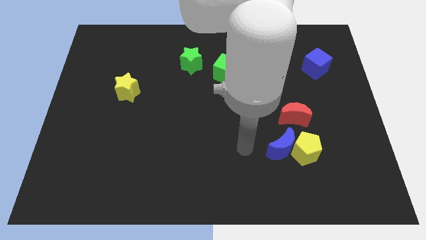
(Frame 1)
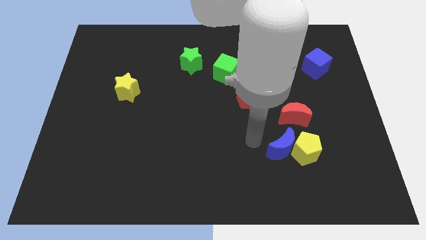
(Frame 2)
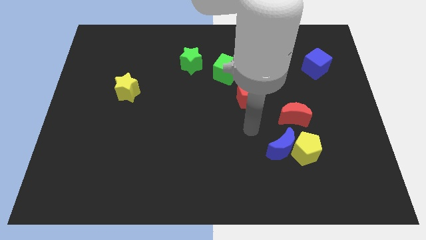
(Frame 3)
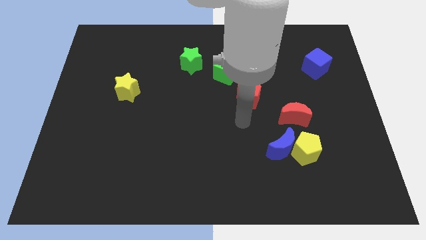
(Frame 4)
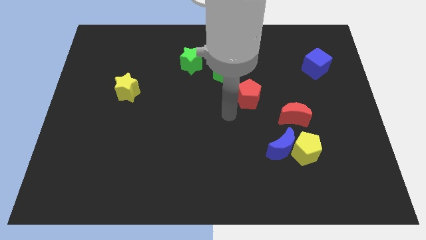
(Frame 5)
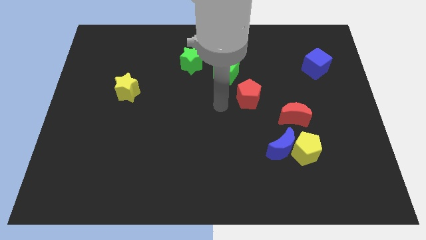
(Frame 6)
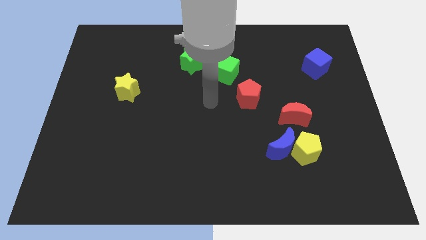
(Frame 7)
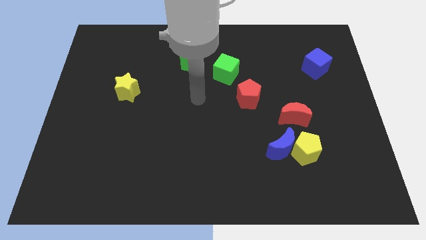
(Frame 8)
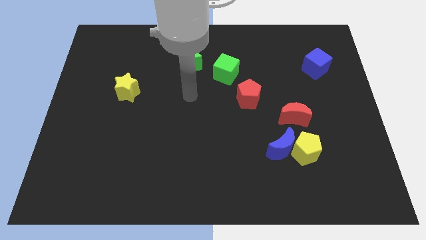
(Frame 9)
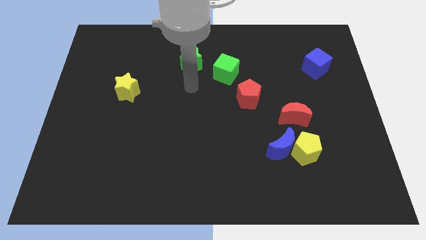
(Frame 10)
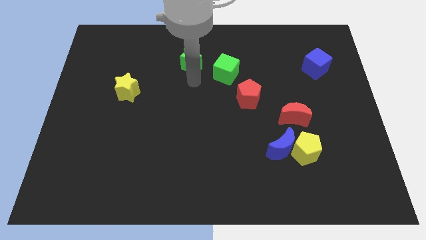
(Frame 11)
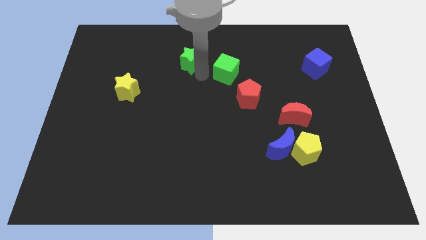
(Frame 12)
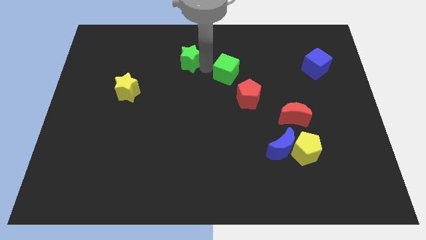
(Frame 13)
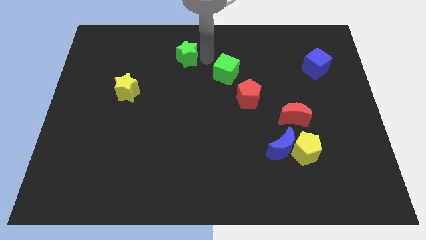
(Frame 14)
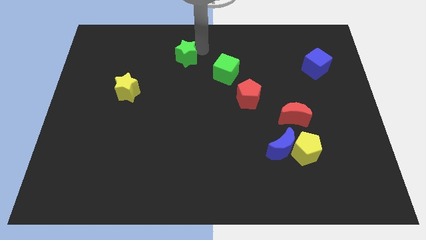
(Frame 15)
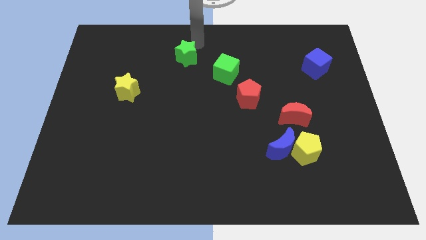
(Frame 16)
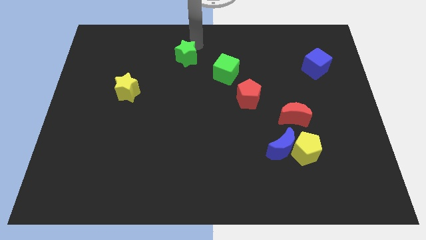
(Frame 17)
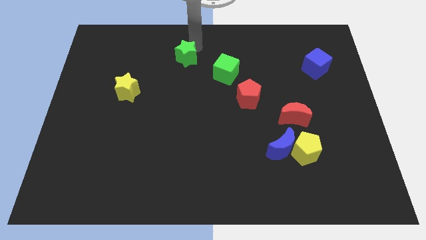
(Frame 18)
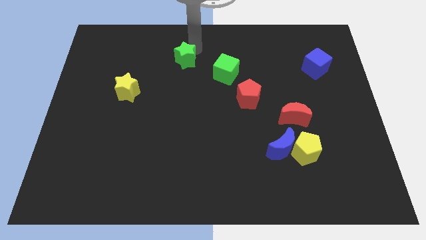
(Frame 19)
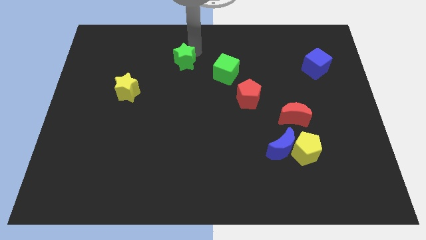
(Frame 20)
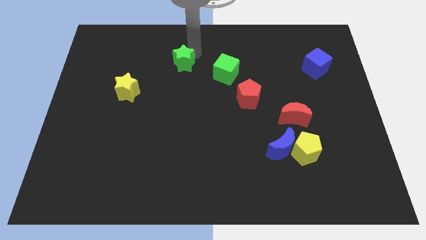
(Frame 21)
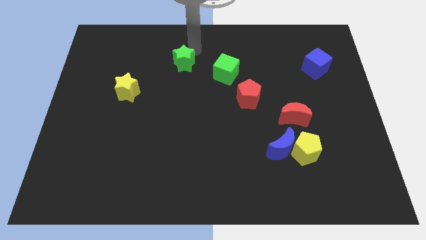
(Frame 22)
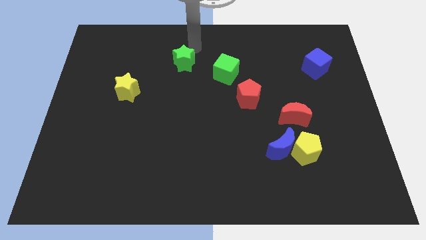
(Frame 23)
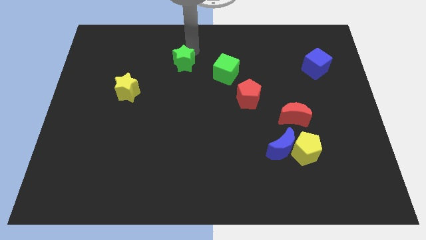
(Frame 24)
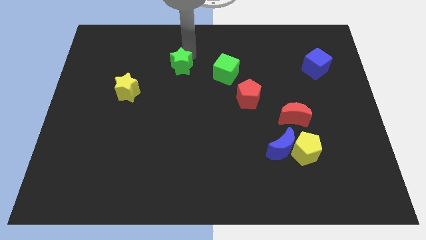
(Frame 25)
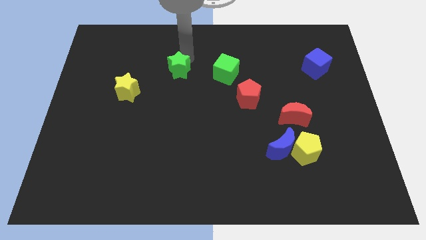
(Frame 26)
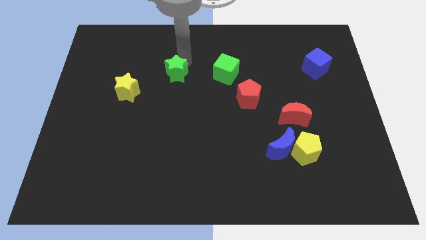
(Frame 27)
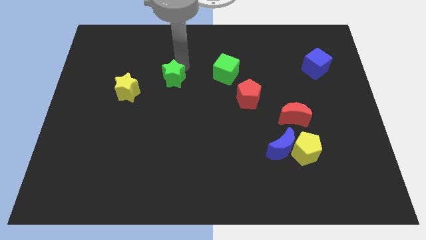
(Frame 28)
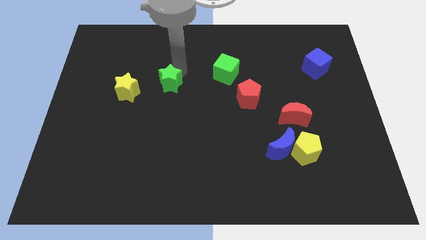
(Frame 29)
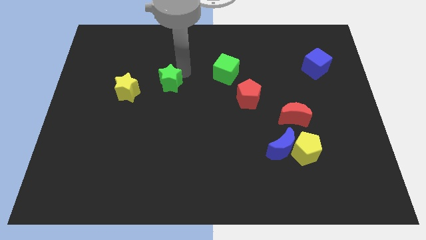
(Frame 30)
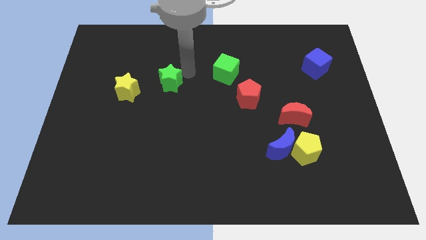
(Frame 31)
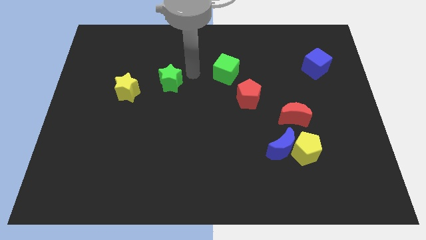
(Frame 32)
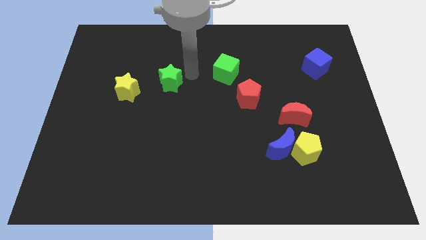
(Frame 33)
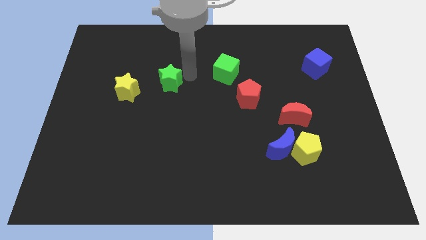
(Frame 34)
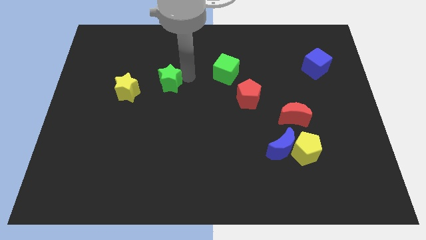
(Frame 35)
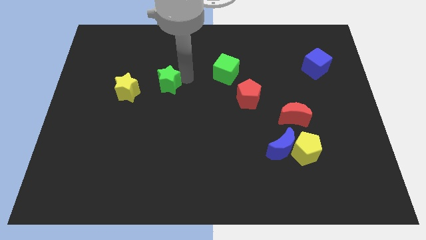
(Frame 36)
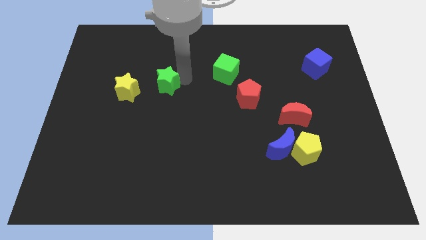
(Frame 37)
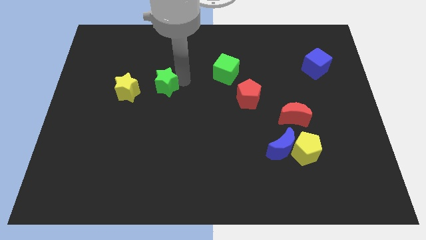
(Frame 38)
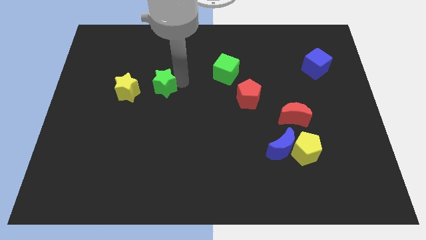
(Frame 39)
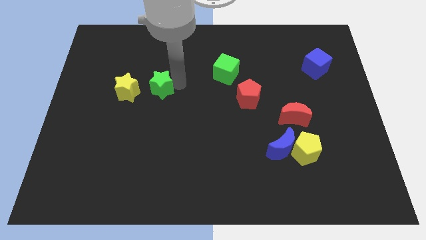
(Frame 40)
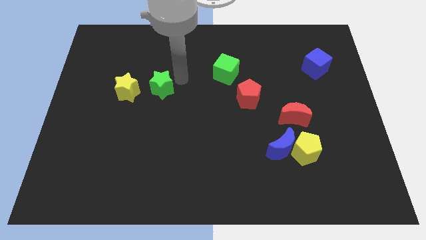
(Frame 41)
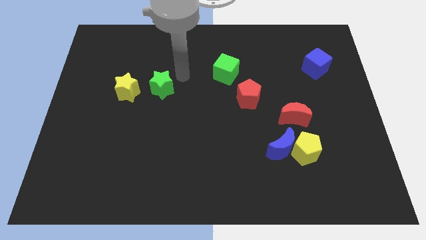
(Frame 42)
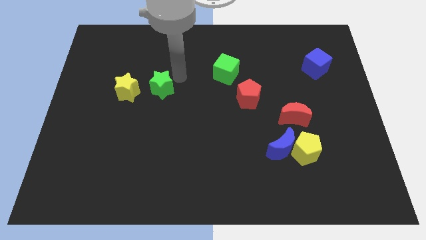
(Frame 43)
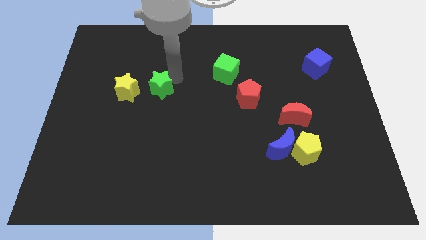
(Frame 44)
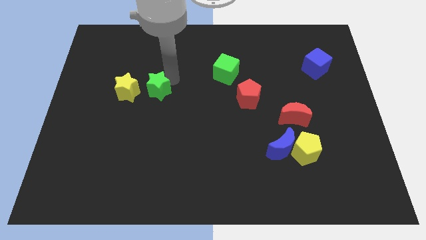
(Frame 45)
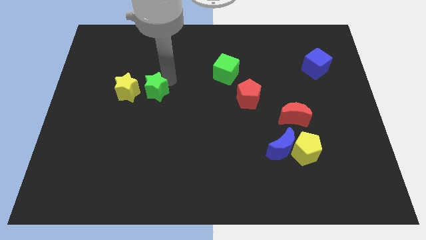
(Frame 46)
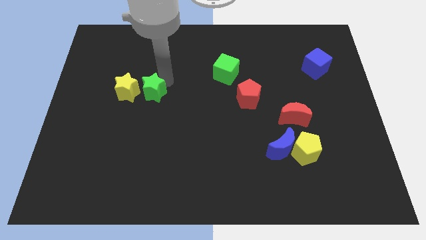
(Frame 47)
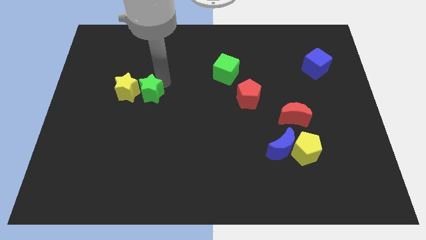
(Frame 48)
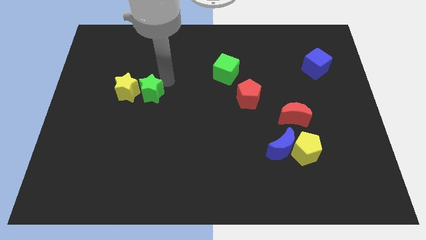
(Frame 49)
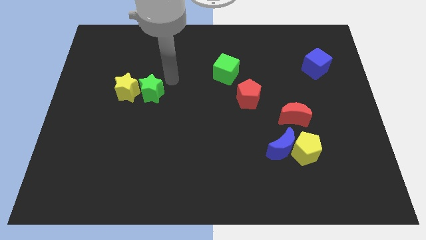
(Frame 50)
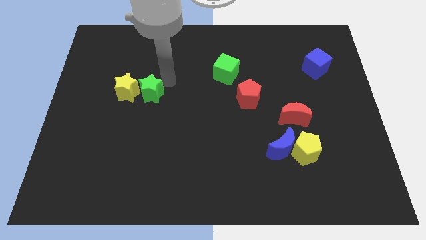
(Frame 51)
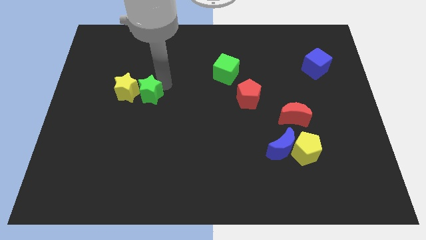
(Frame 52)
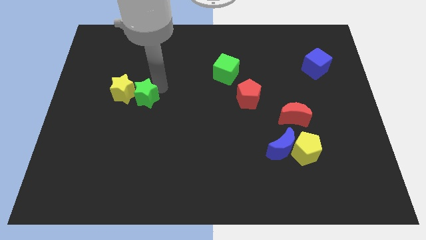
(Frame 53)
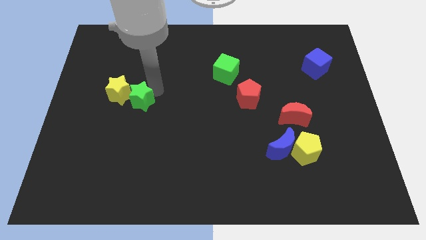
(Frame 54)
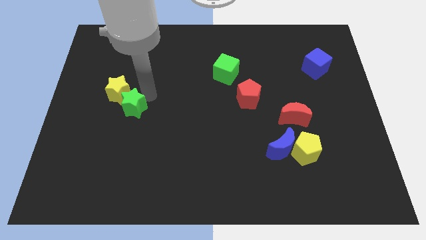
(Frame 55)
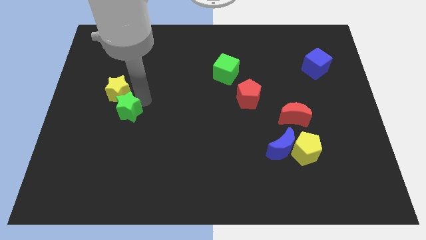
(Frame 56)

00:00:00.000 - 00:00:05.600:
slide the green star downwards and left diagonally

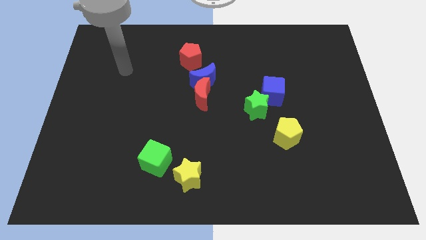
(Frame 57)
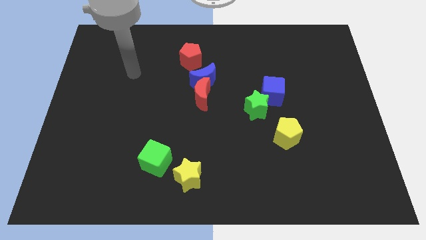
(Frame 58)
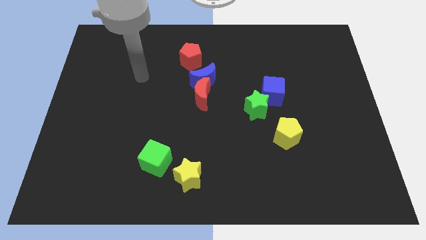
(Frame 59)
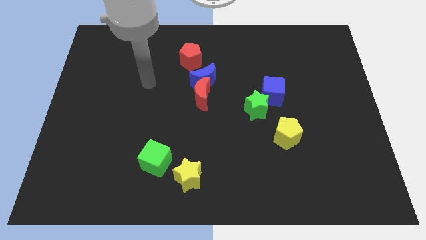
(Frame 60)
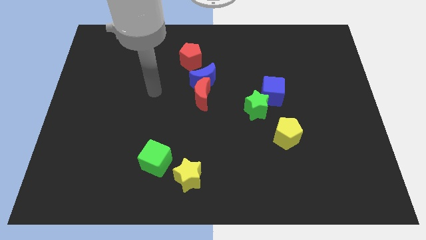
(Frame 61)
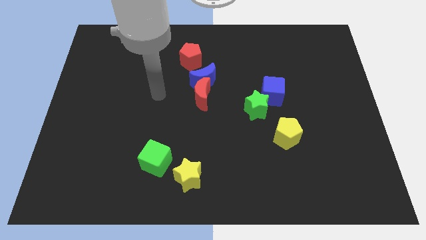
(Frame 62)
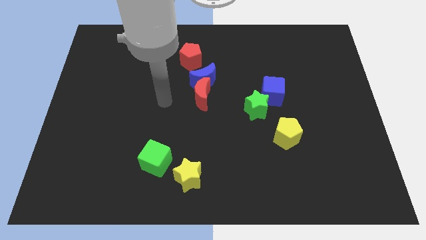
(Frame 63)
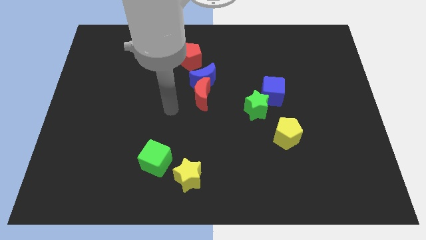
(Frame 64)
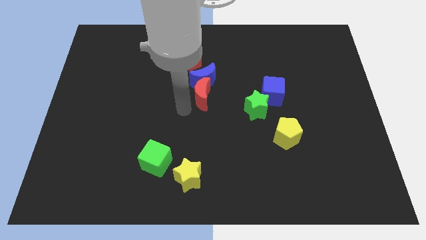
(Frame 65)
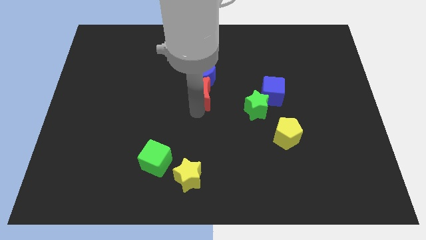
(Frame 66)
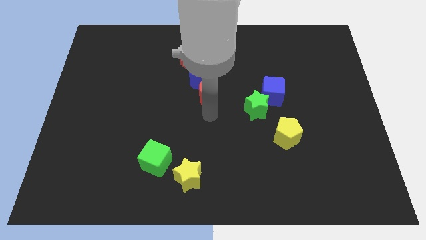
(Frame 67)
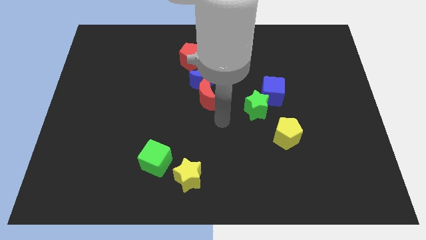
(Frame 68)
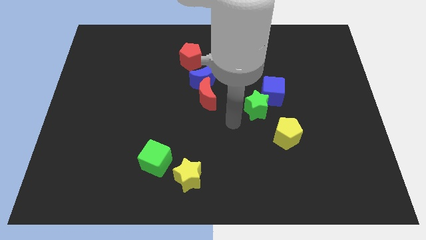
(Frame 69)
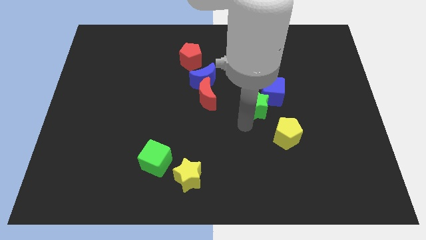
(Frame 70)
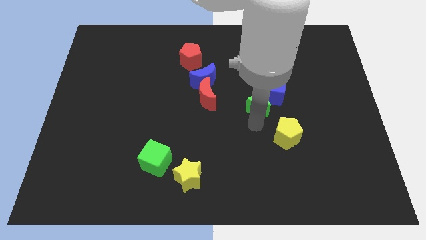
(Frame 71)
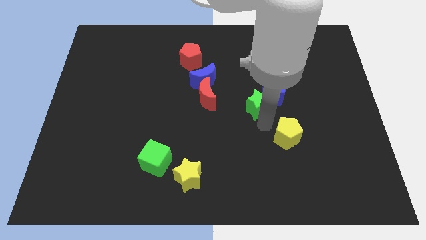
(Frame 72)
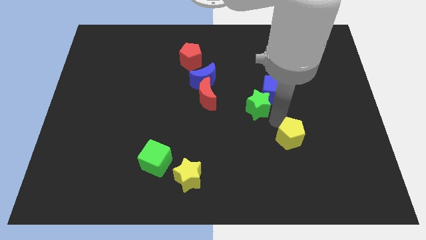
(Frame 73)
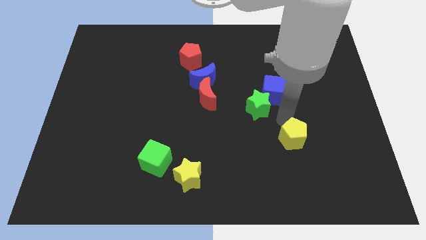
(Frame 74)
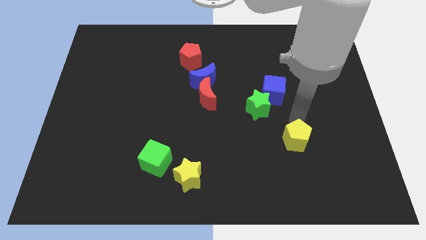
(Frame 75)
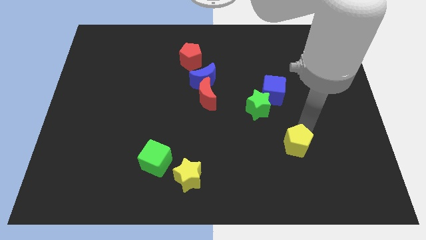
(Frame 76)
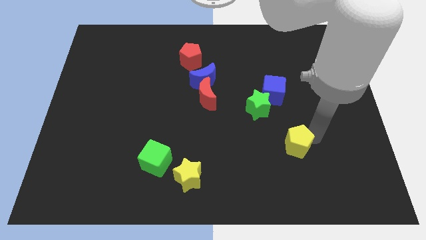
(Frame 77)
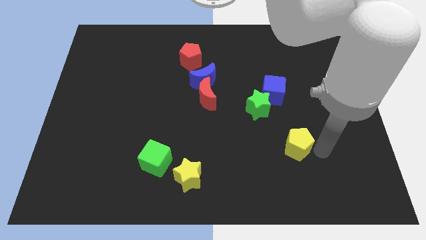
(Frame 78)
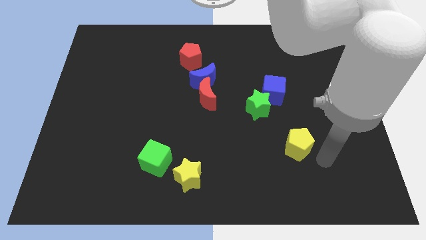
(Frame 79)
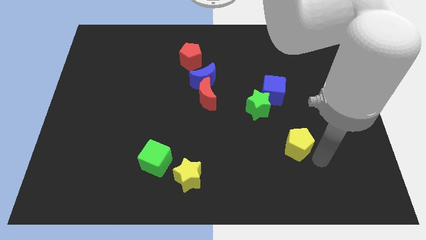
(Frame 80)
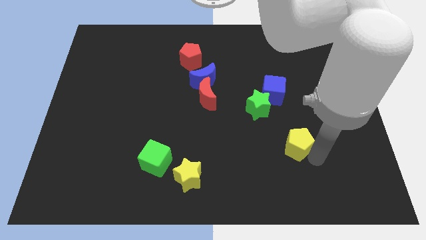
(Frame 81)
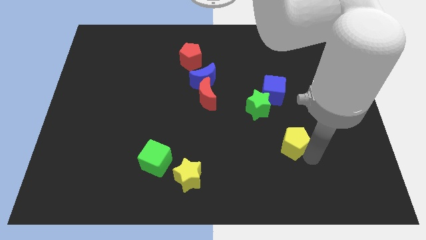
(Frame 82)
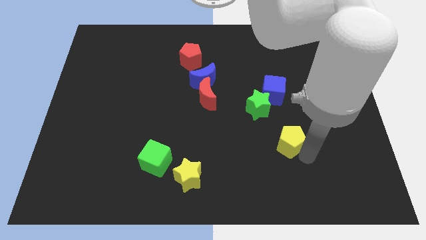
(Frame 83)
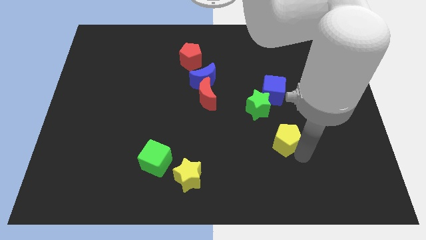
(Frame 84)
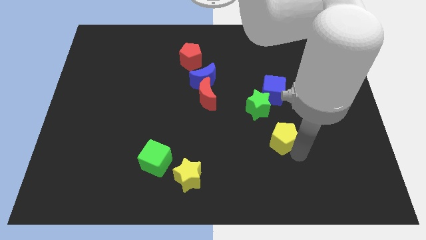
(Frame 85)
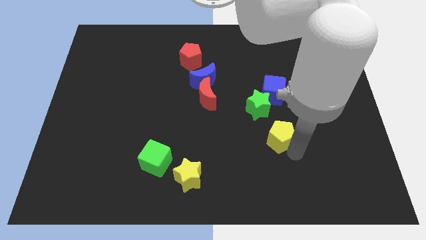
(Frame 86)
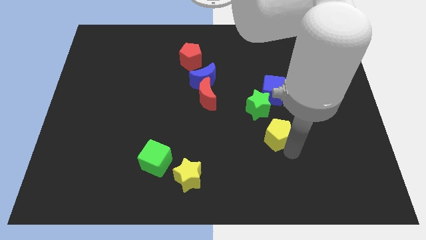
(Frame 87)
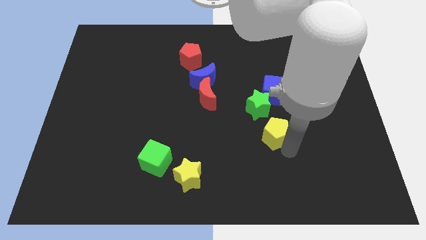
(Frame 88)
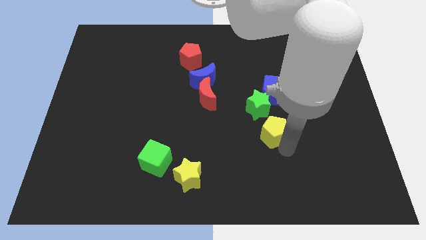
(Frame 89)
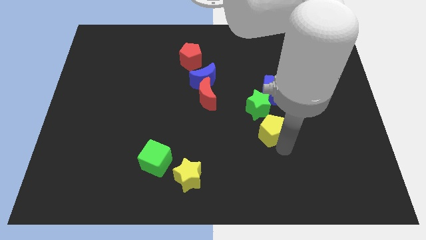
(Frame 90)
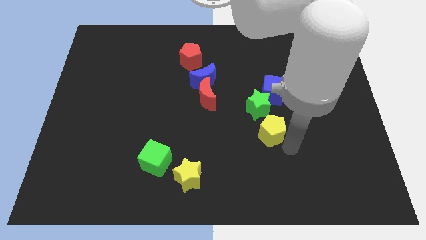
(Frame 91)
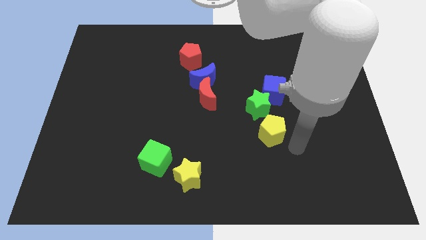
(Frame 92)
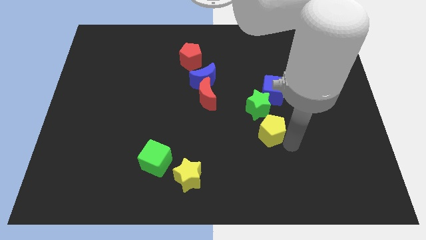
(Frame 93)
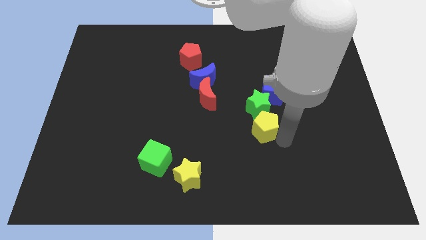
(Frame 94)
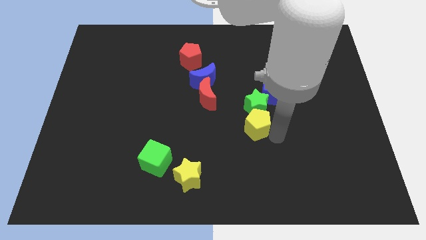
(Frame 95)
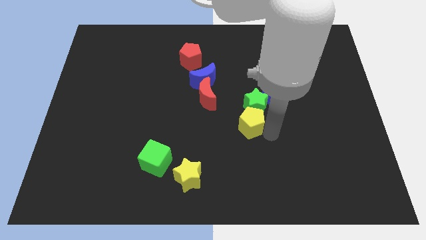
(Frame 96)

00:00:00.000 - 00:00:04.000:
push the yellow pentagon diagonally upwards and to the left slightly
